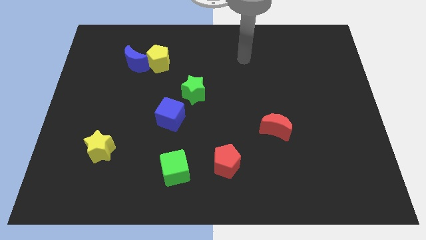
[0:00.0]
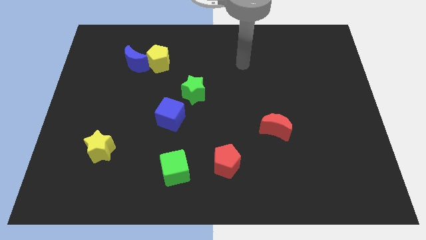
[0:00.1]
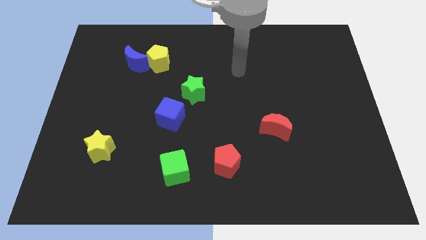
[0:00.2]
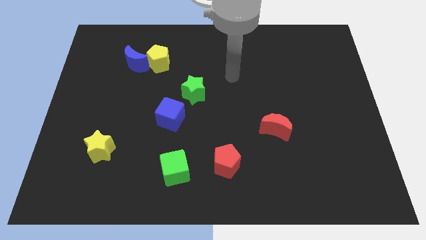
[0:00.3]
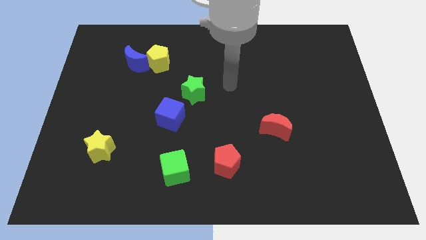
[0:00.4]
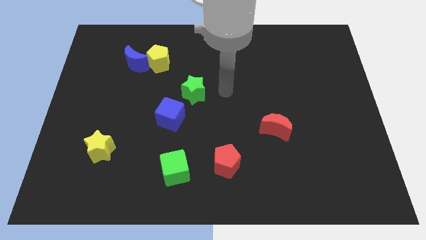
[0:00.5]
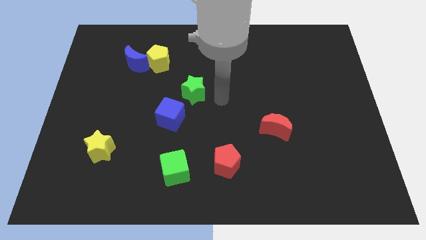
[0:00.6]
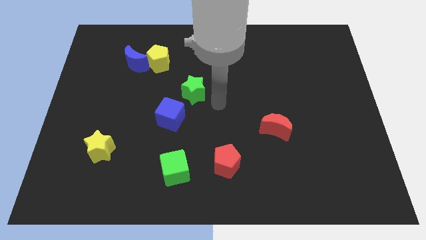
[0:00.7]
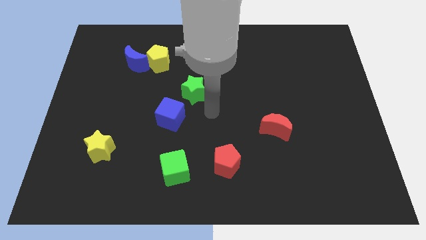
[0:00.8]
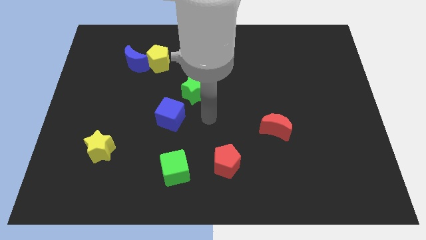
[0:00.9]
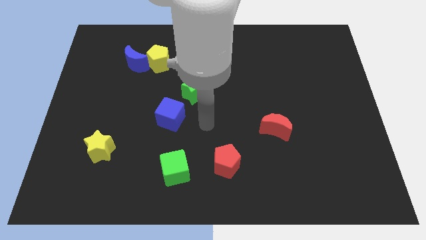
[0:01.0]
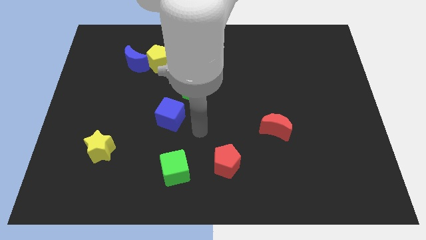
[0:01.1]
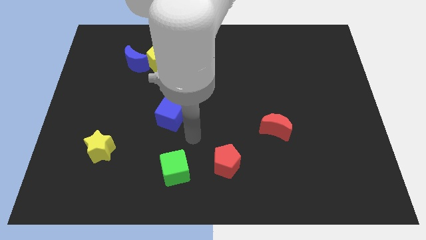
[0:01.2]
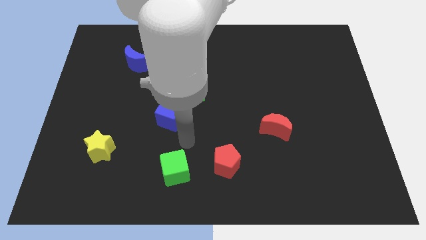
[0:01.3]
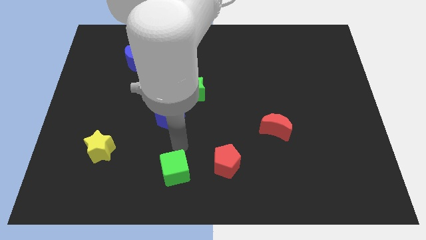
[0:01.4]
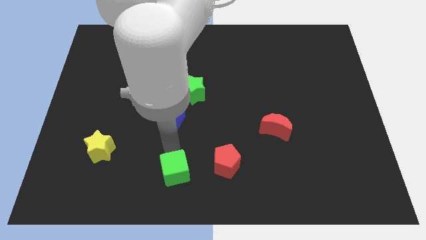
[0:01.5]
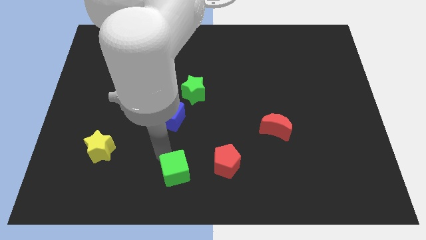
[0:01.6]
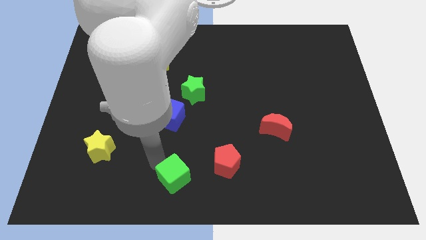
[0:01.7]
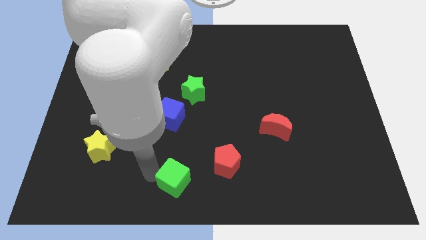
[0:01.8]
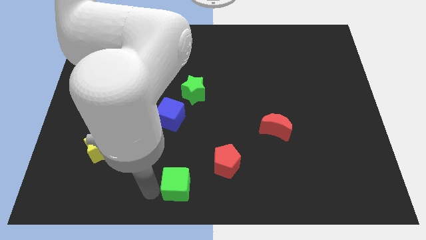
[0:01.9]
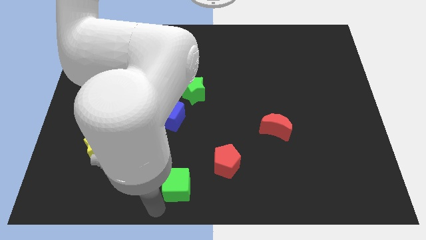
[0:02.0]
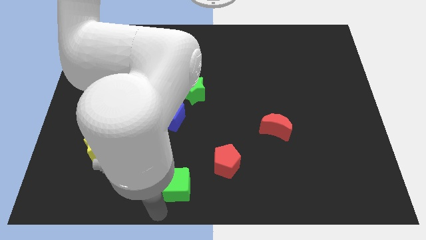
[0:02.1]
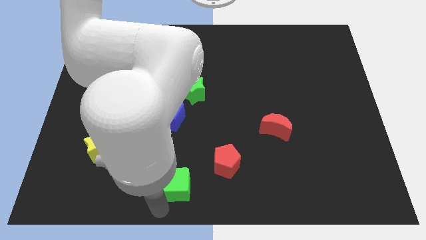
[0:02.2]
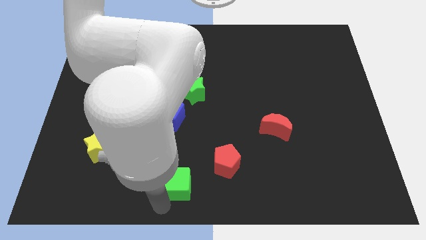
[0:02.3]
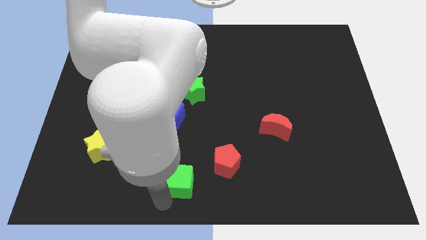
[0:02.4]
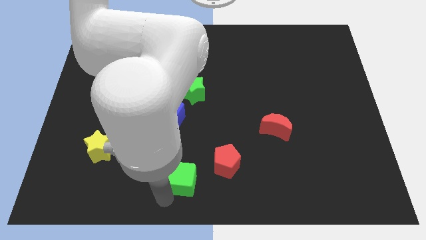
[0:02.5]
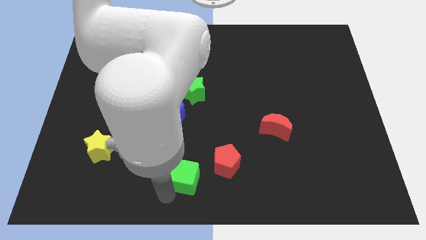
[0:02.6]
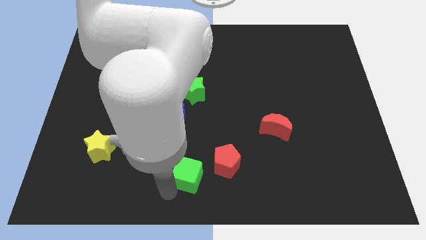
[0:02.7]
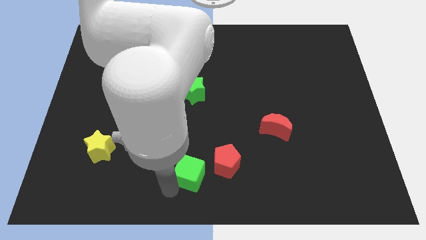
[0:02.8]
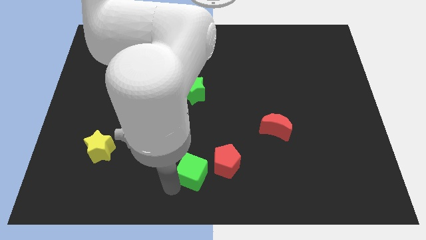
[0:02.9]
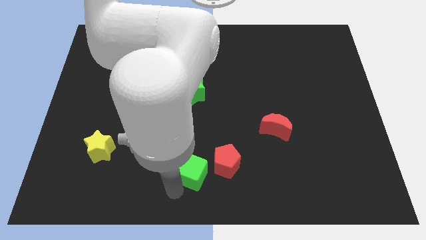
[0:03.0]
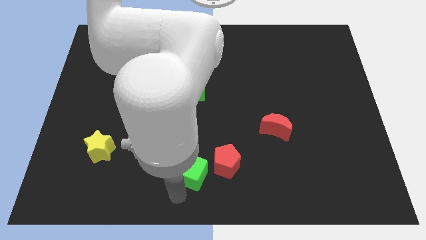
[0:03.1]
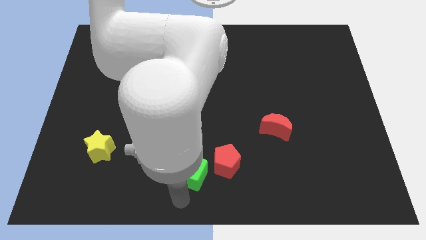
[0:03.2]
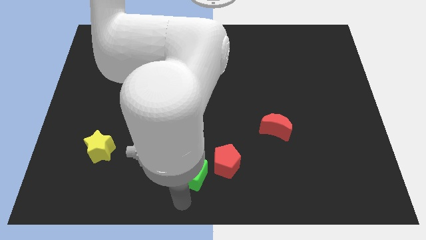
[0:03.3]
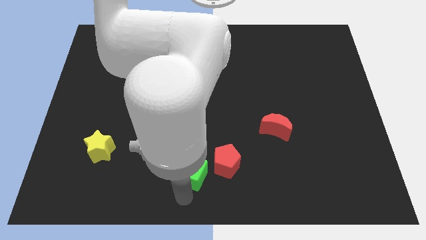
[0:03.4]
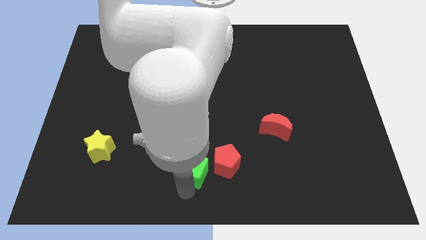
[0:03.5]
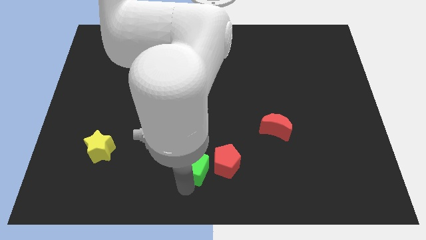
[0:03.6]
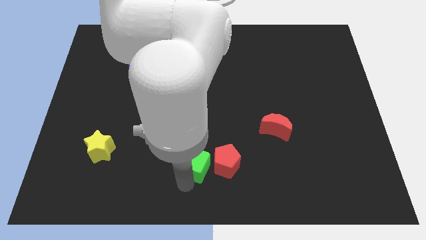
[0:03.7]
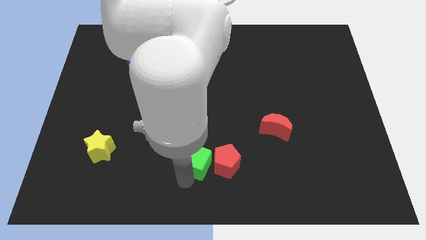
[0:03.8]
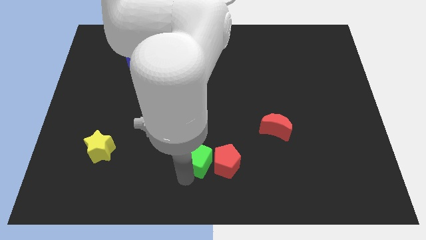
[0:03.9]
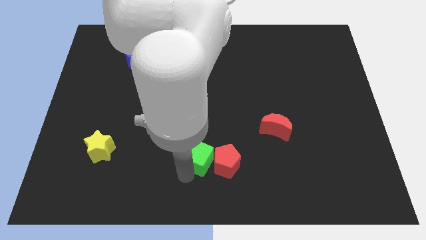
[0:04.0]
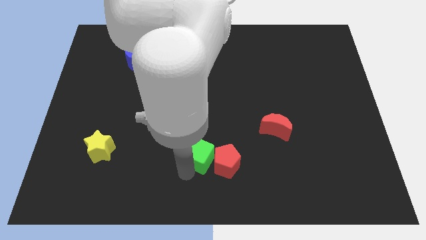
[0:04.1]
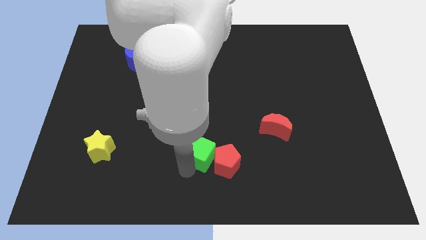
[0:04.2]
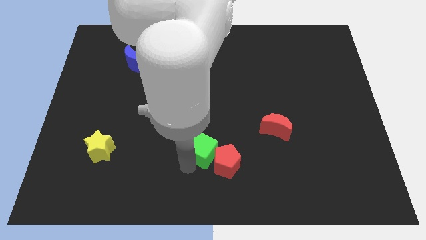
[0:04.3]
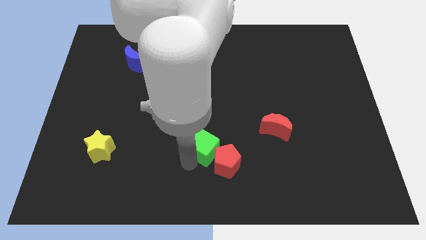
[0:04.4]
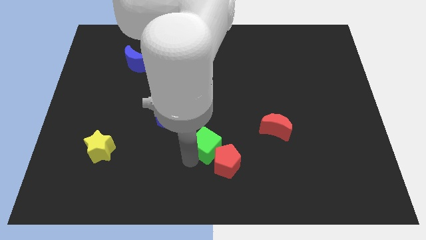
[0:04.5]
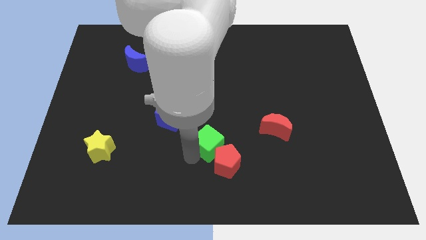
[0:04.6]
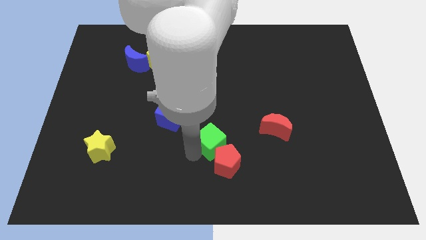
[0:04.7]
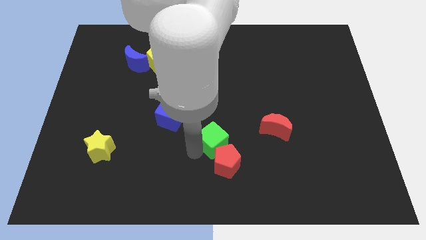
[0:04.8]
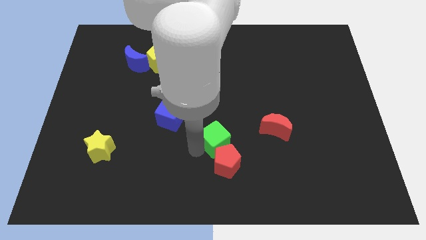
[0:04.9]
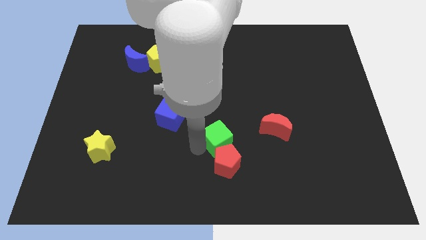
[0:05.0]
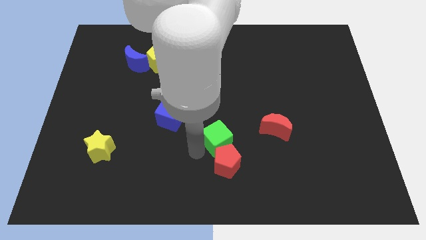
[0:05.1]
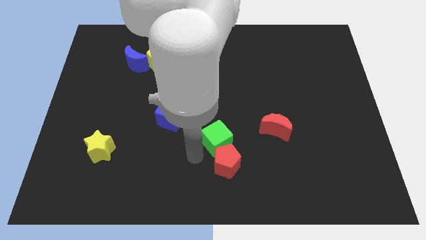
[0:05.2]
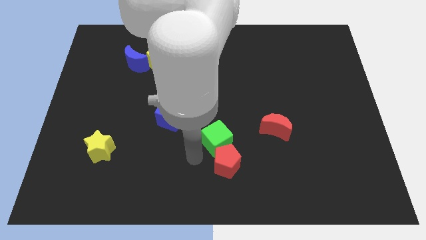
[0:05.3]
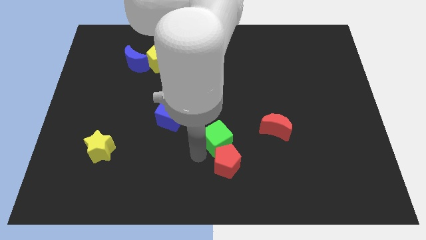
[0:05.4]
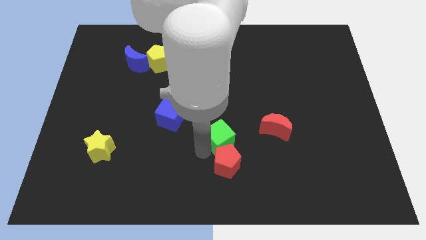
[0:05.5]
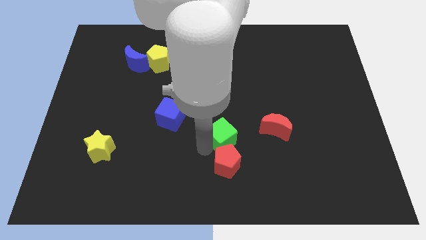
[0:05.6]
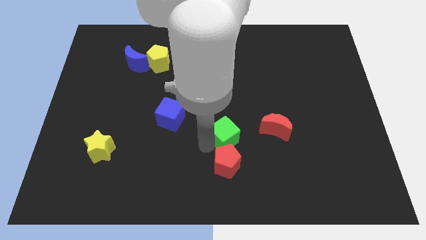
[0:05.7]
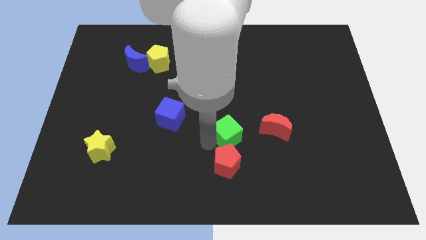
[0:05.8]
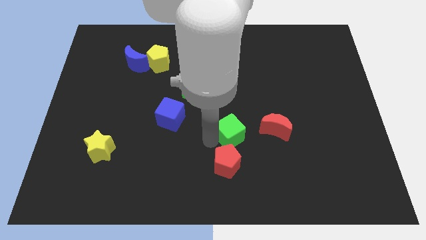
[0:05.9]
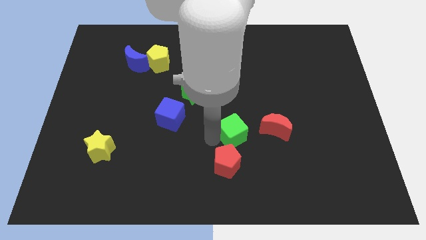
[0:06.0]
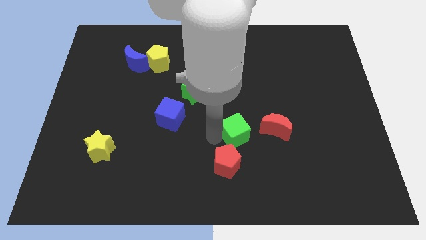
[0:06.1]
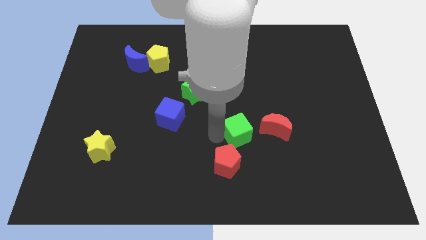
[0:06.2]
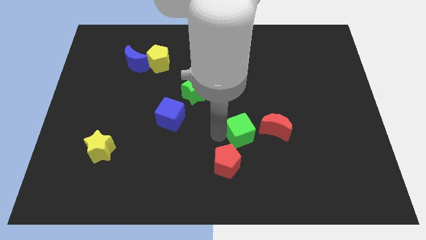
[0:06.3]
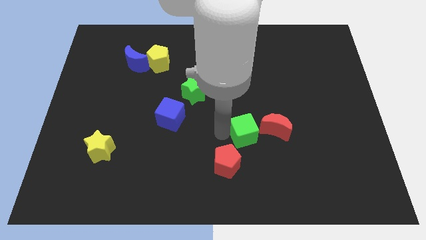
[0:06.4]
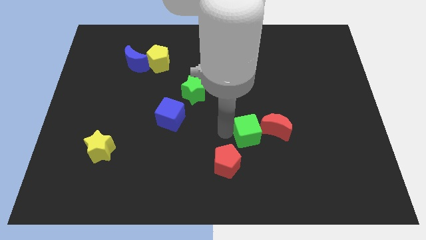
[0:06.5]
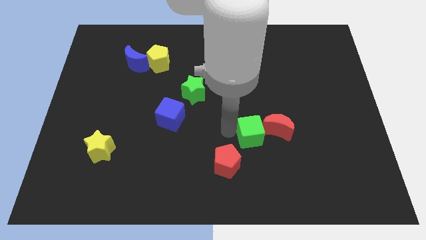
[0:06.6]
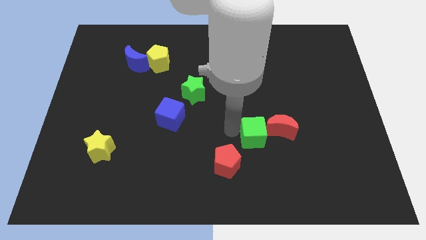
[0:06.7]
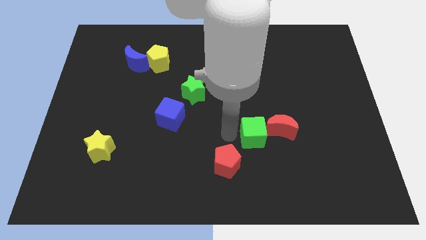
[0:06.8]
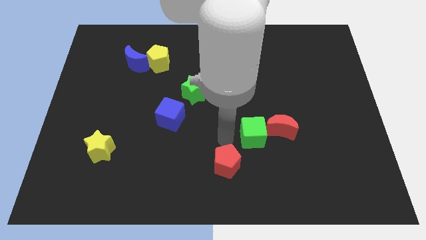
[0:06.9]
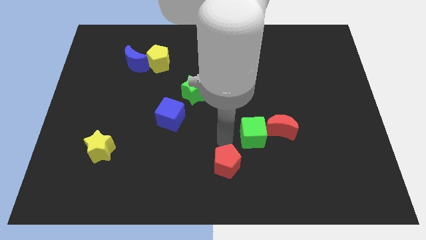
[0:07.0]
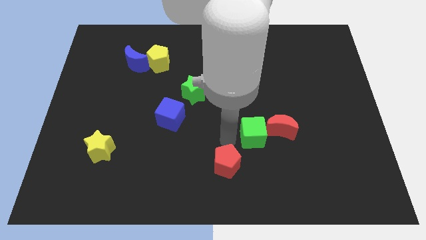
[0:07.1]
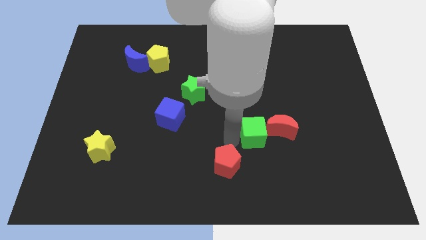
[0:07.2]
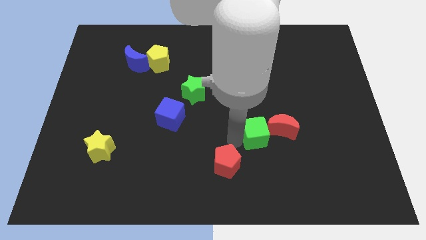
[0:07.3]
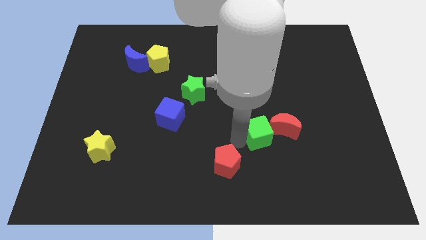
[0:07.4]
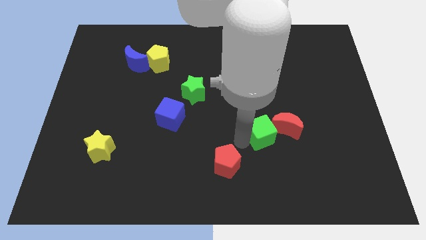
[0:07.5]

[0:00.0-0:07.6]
slide the green cube towards the red moon
